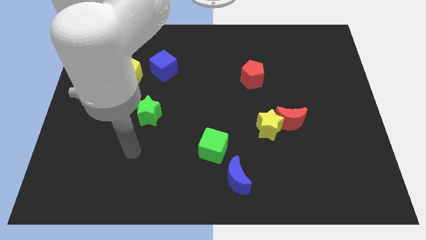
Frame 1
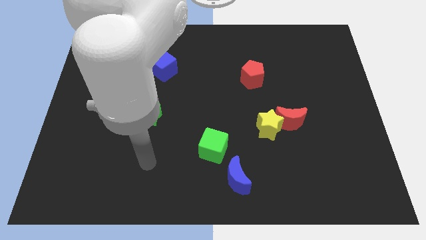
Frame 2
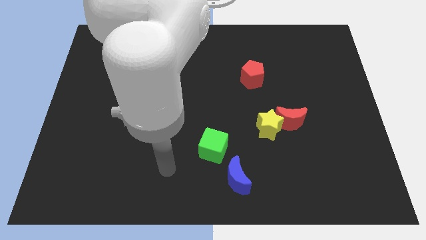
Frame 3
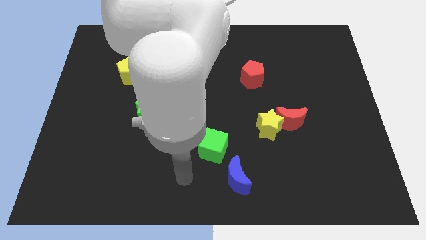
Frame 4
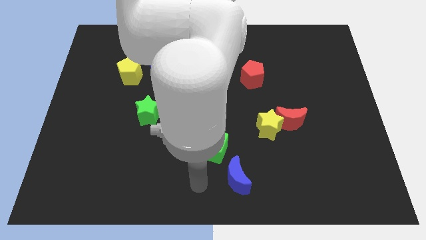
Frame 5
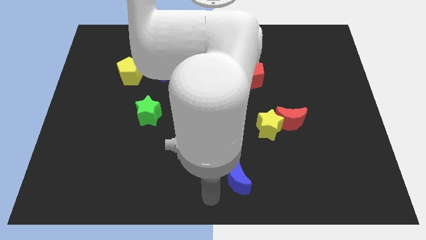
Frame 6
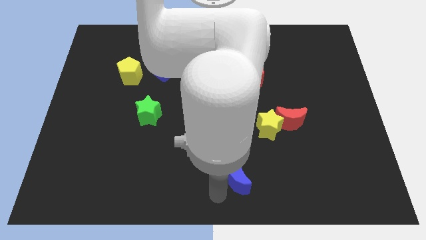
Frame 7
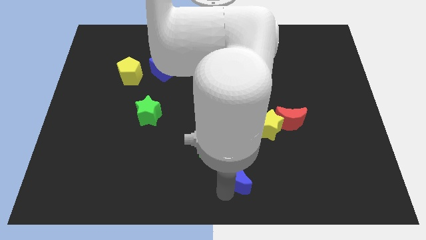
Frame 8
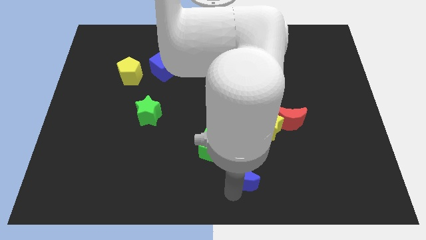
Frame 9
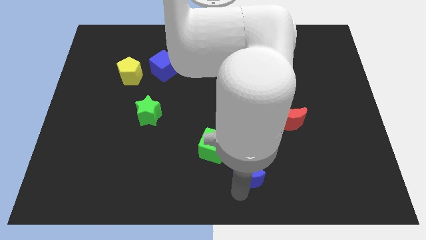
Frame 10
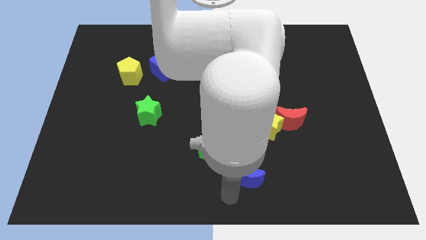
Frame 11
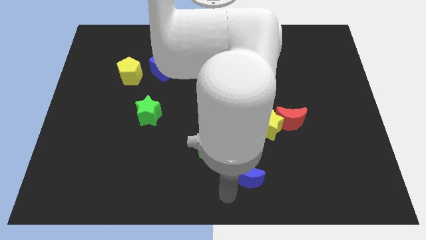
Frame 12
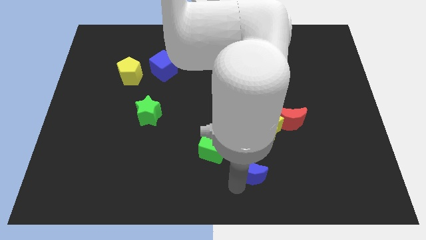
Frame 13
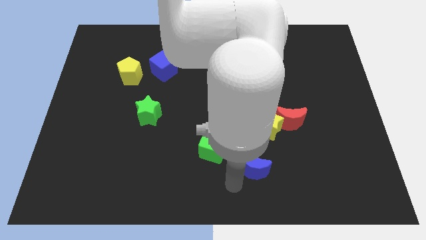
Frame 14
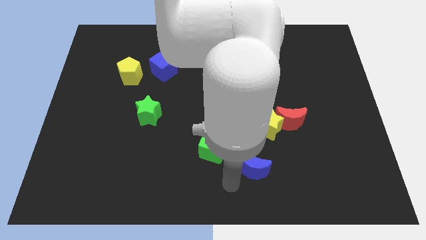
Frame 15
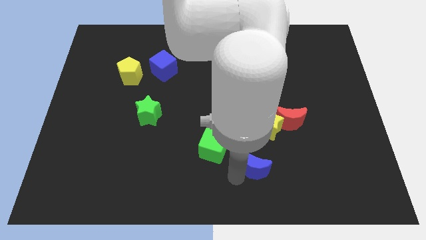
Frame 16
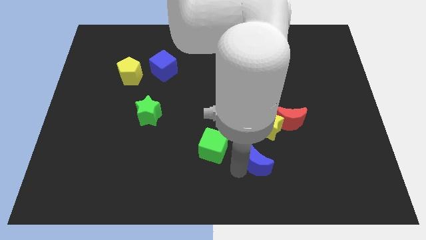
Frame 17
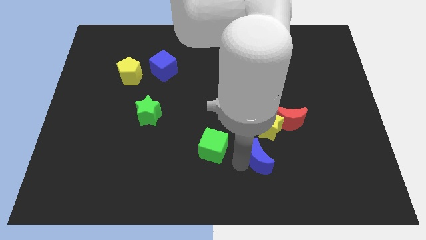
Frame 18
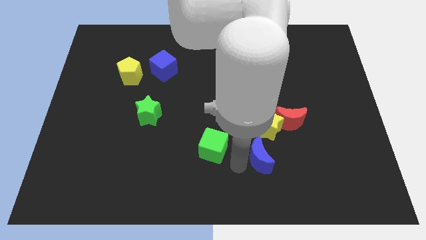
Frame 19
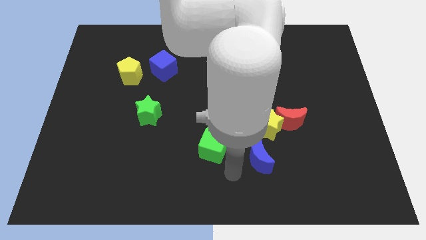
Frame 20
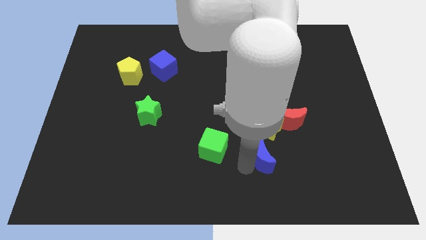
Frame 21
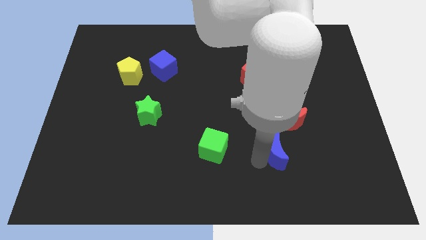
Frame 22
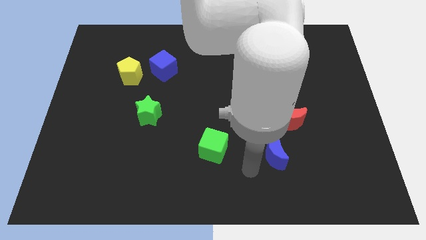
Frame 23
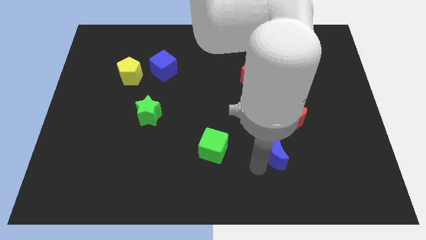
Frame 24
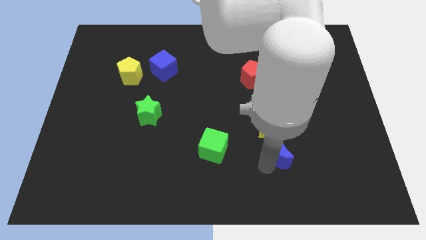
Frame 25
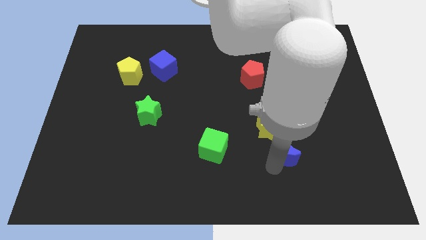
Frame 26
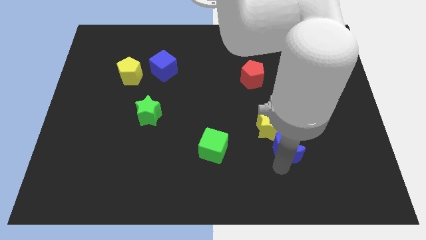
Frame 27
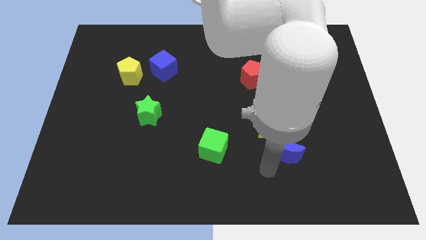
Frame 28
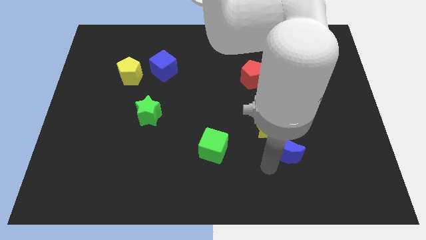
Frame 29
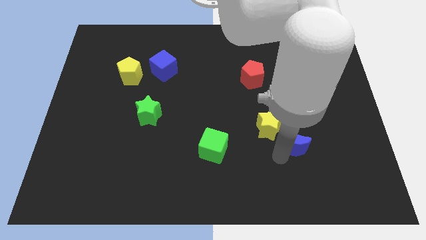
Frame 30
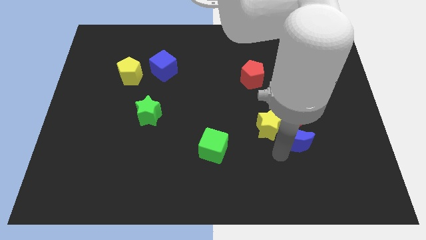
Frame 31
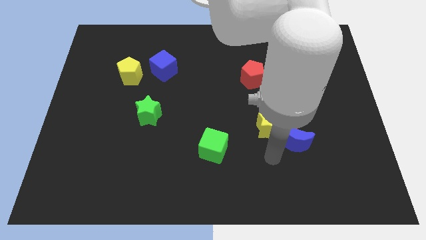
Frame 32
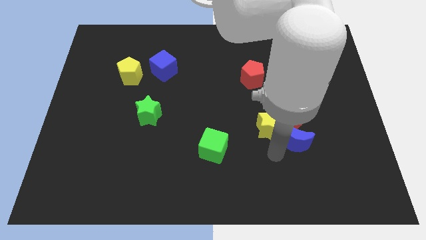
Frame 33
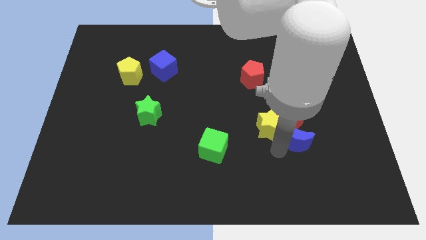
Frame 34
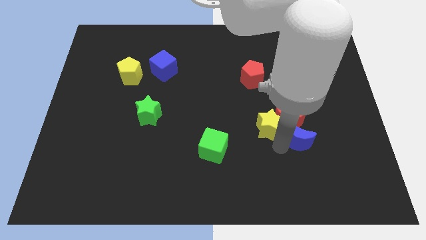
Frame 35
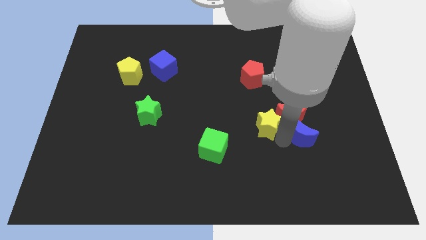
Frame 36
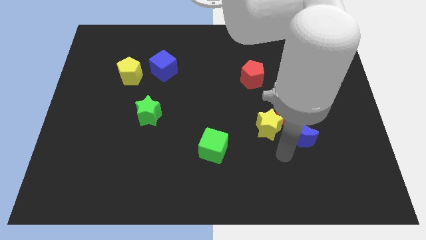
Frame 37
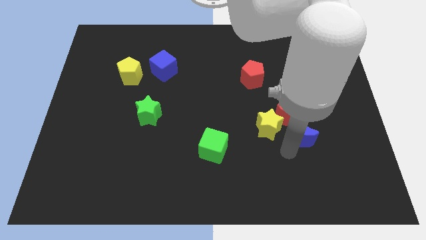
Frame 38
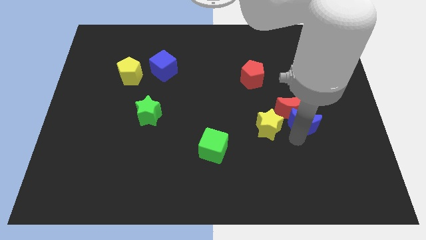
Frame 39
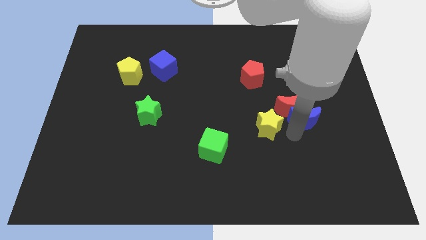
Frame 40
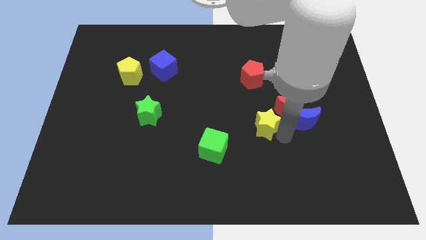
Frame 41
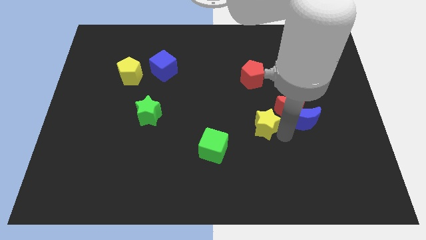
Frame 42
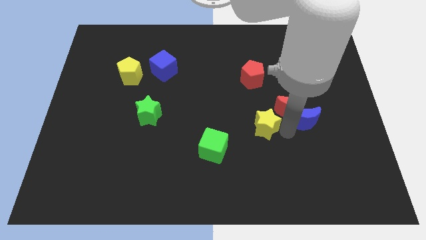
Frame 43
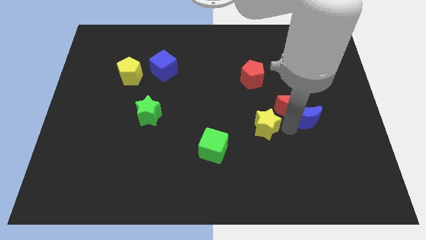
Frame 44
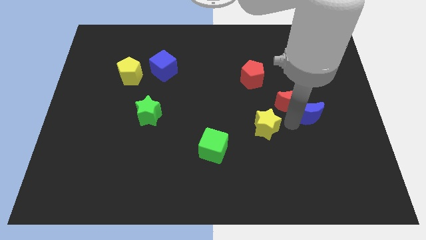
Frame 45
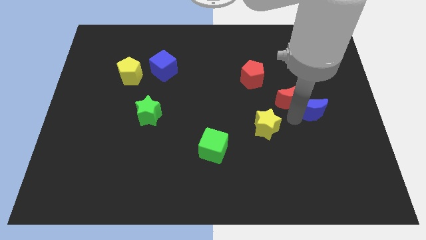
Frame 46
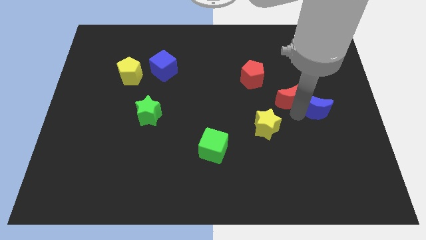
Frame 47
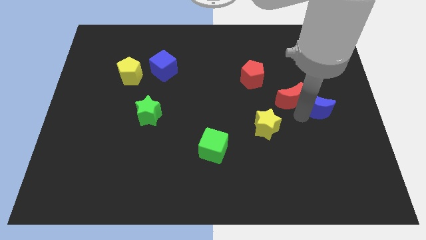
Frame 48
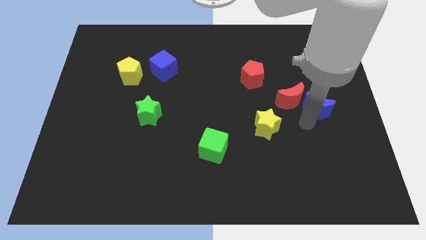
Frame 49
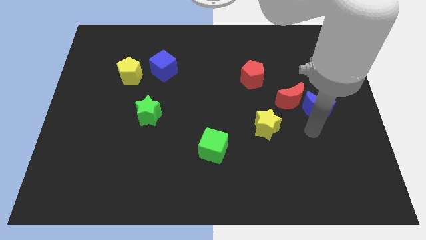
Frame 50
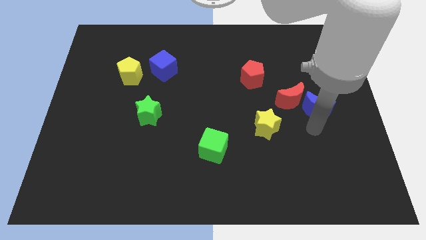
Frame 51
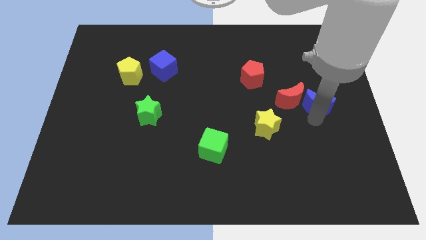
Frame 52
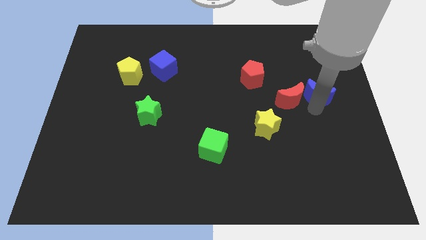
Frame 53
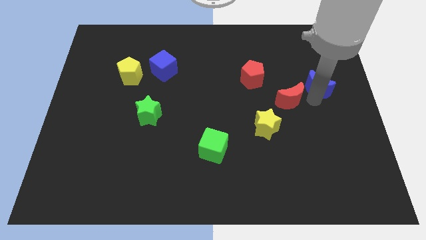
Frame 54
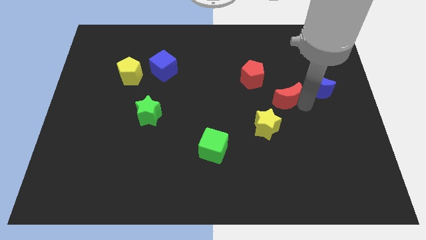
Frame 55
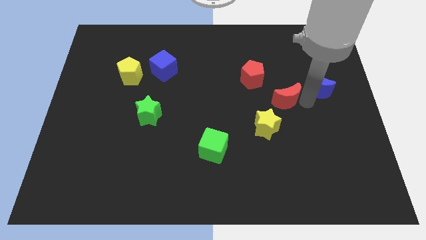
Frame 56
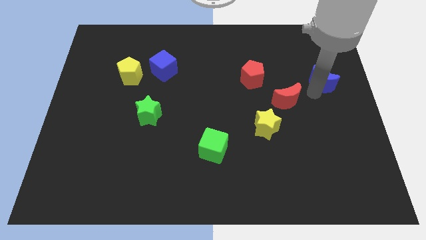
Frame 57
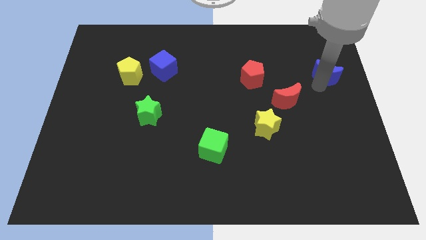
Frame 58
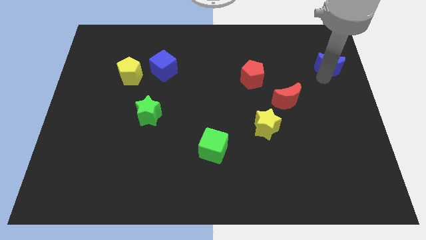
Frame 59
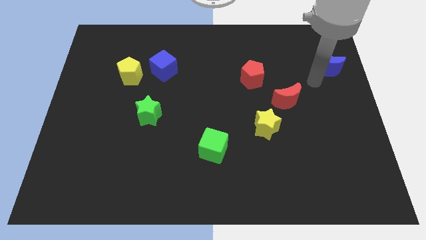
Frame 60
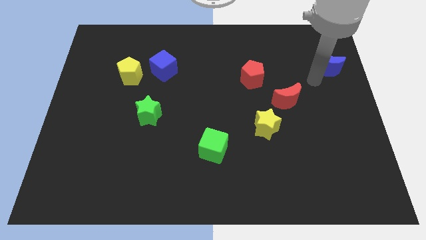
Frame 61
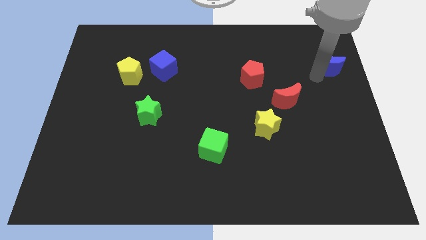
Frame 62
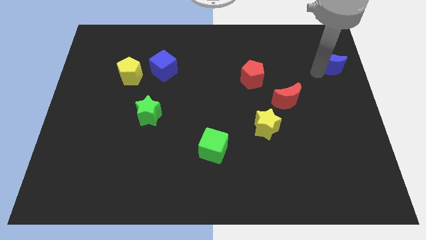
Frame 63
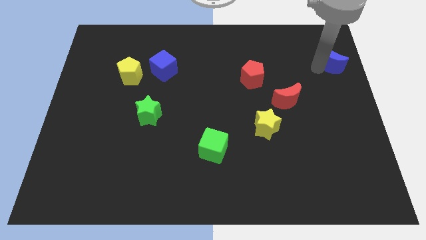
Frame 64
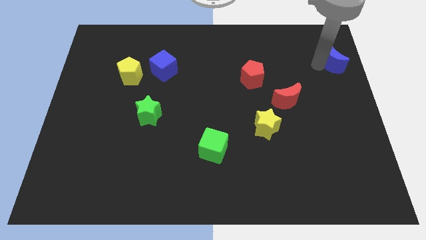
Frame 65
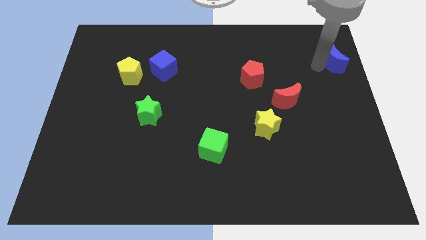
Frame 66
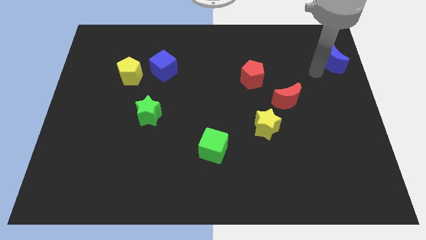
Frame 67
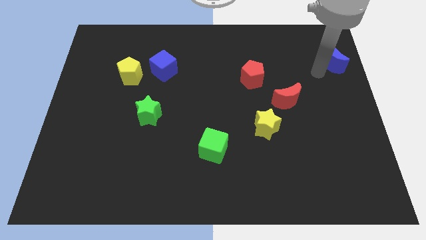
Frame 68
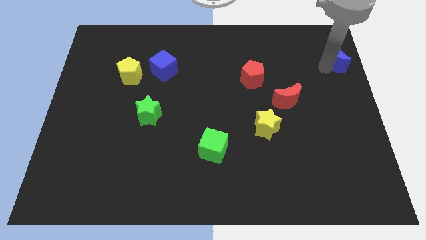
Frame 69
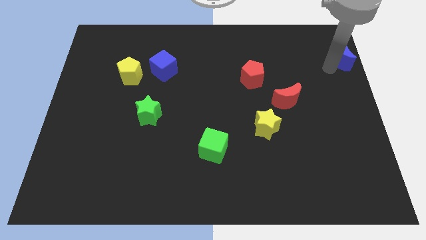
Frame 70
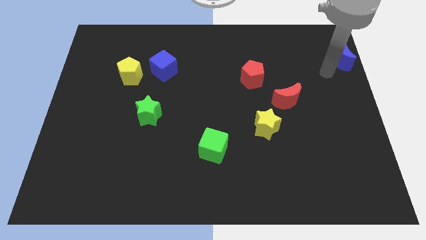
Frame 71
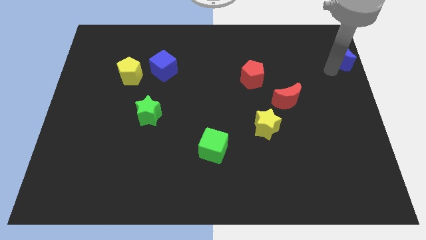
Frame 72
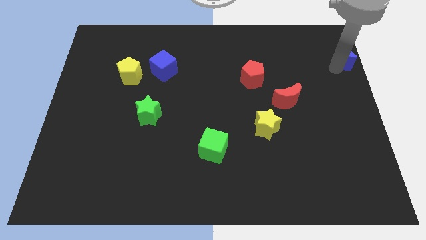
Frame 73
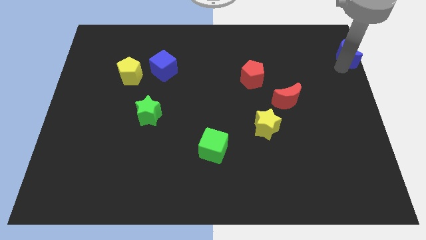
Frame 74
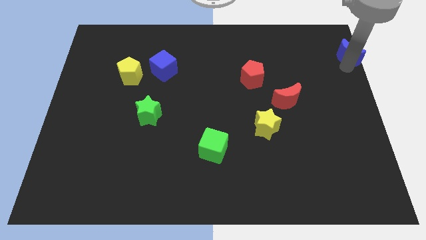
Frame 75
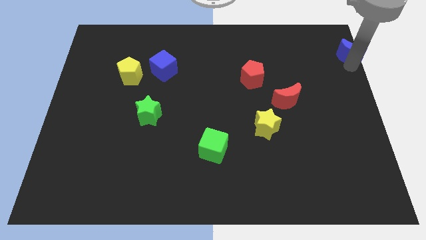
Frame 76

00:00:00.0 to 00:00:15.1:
push the blue moon to the upper right corner
